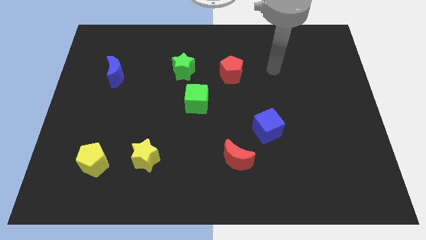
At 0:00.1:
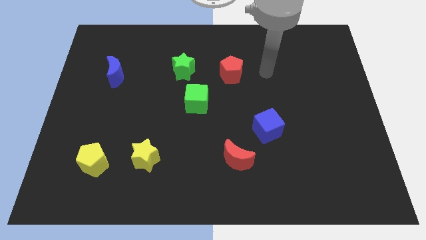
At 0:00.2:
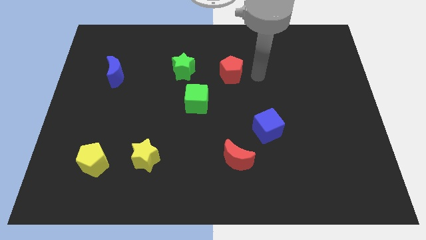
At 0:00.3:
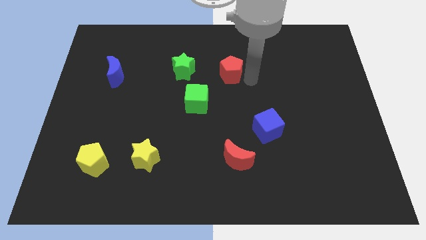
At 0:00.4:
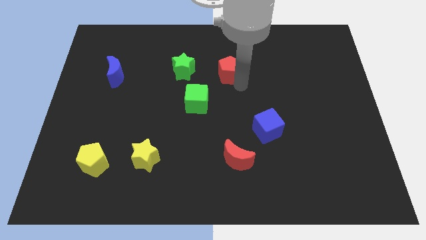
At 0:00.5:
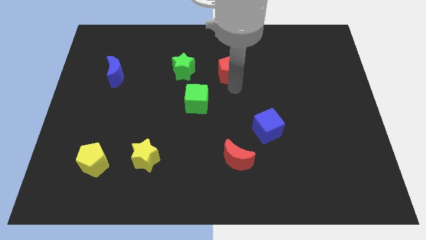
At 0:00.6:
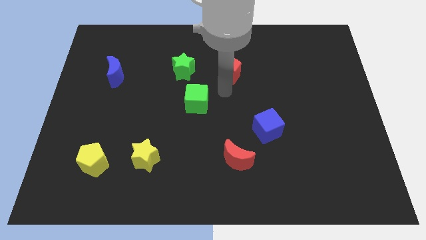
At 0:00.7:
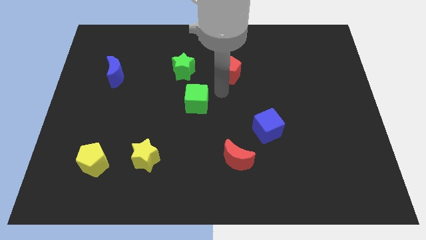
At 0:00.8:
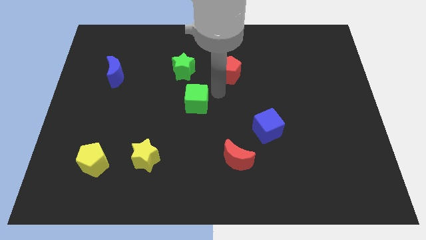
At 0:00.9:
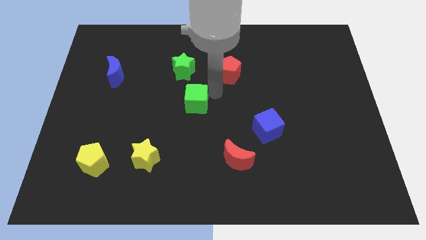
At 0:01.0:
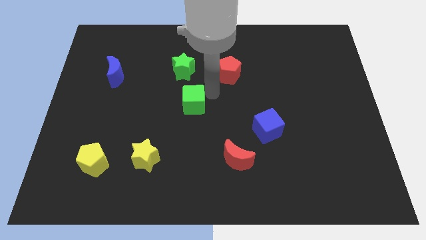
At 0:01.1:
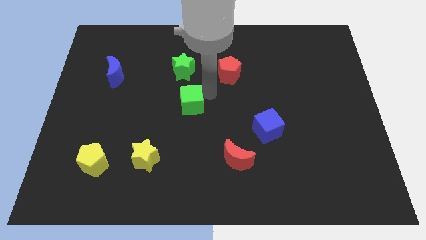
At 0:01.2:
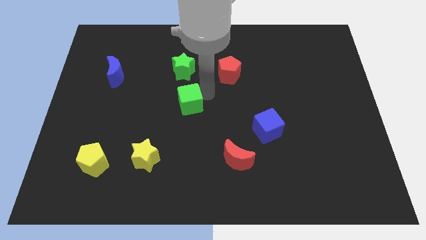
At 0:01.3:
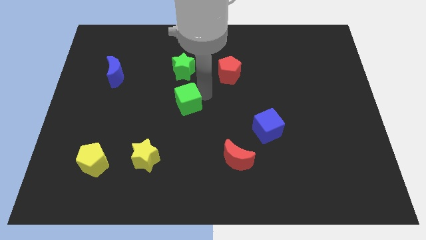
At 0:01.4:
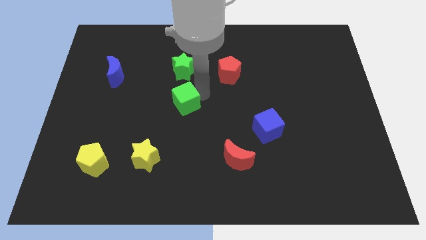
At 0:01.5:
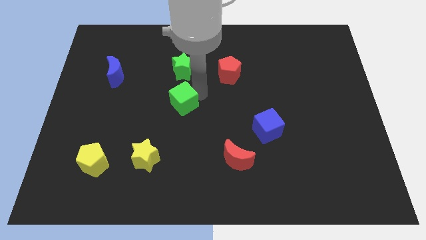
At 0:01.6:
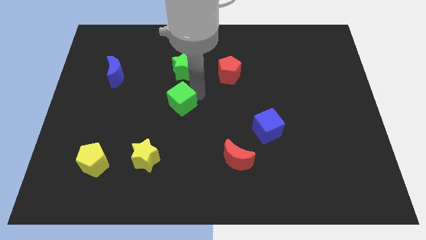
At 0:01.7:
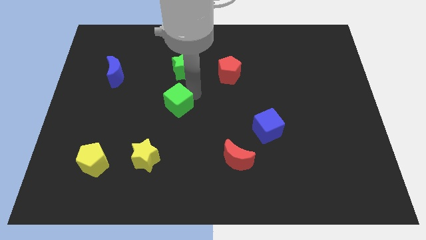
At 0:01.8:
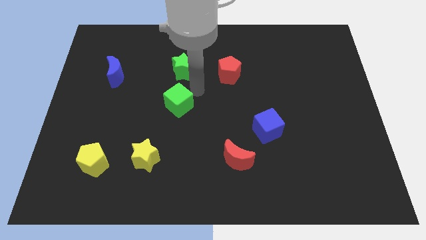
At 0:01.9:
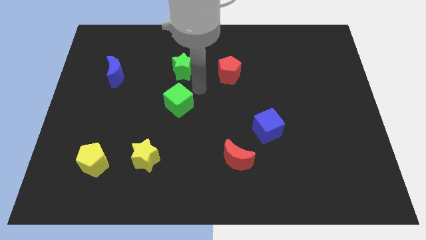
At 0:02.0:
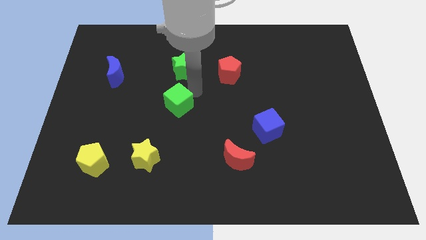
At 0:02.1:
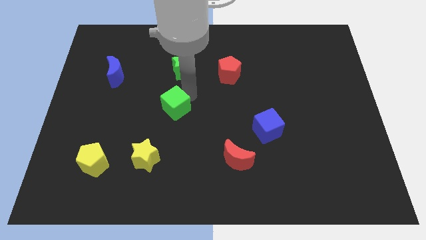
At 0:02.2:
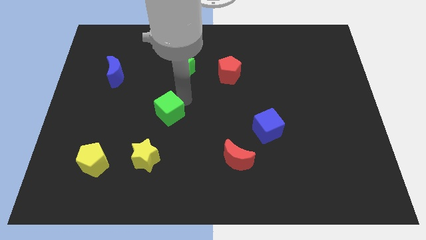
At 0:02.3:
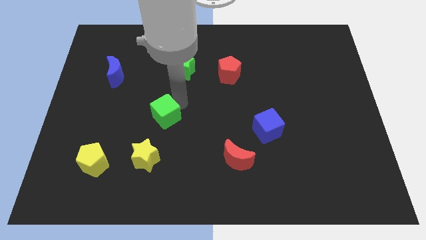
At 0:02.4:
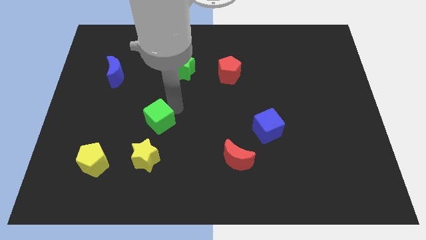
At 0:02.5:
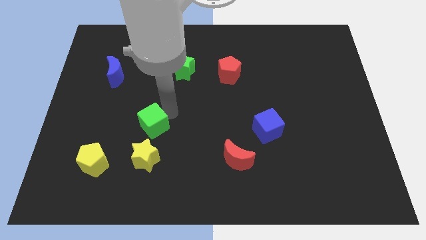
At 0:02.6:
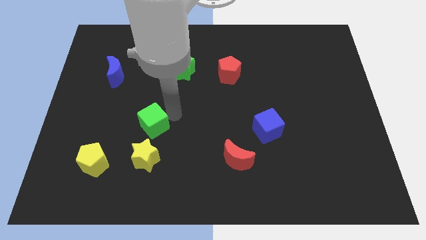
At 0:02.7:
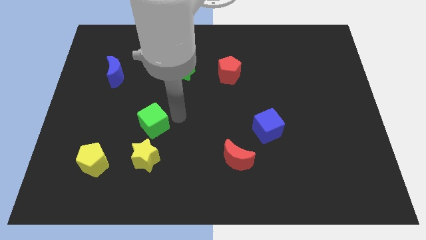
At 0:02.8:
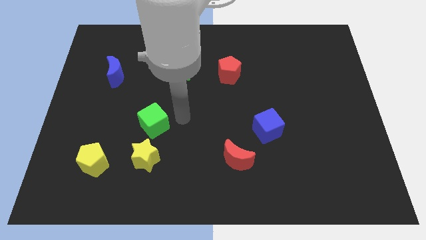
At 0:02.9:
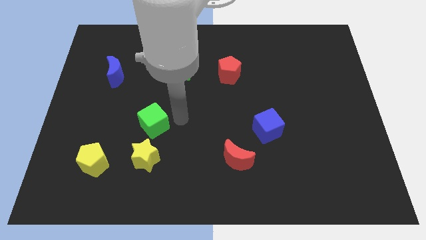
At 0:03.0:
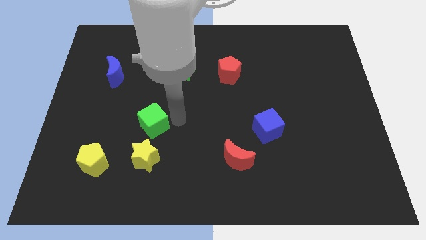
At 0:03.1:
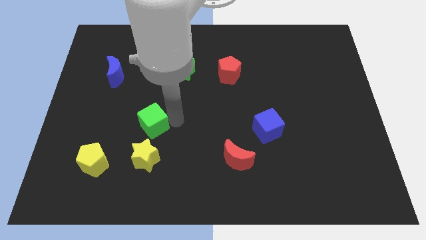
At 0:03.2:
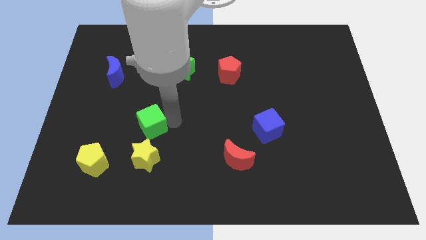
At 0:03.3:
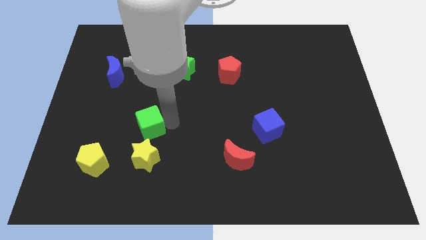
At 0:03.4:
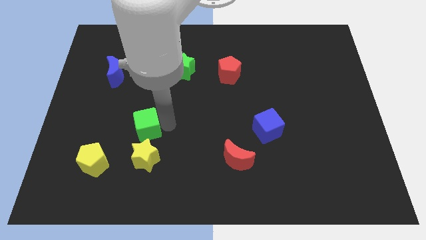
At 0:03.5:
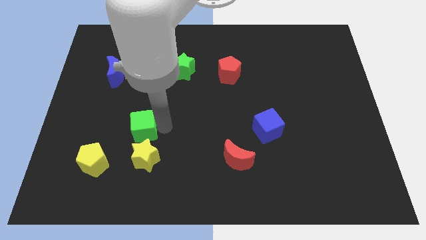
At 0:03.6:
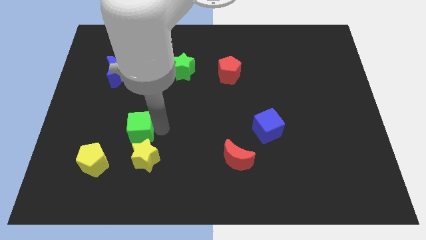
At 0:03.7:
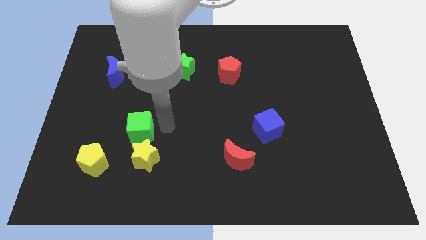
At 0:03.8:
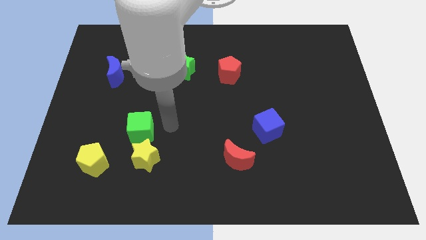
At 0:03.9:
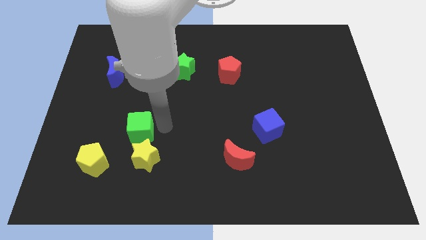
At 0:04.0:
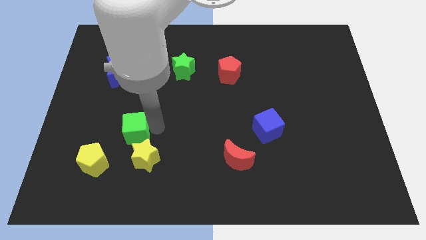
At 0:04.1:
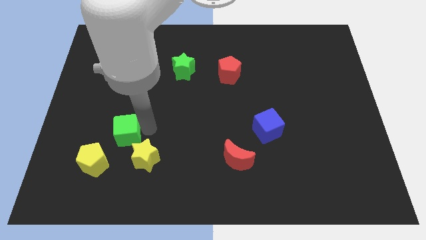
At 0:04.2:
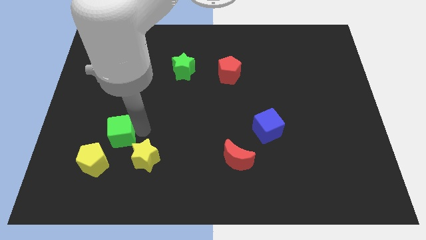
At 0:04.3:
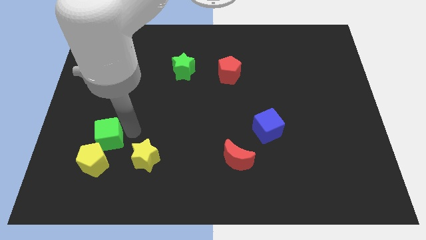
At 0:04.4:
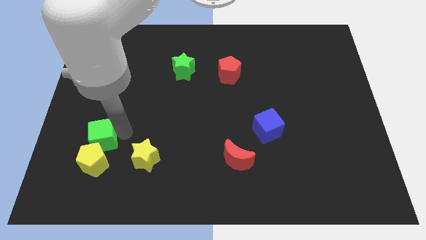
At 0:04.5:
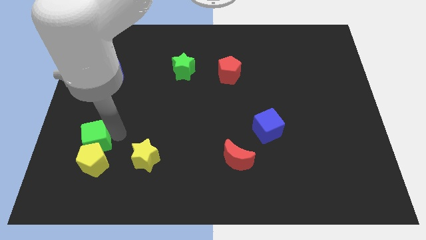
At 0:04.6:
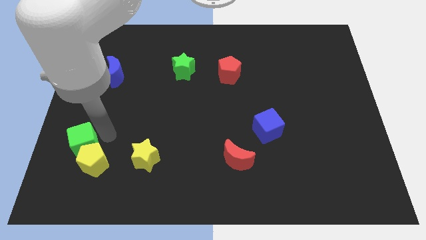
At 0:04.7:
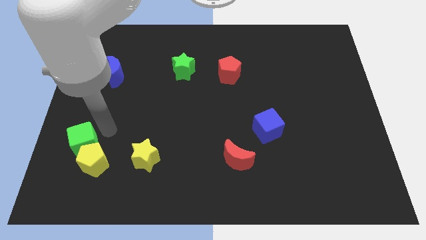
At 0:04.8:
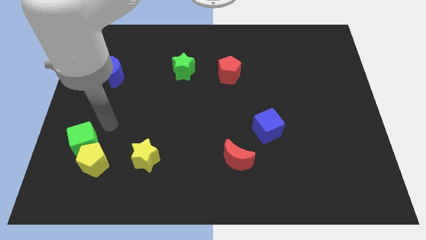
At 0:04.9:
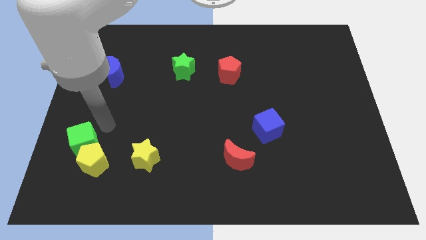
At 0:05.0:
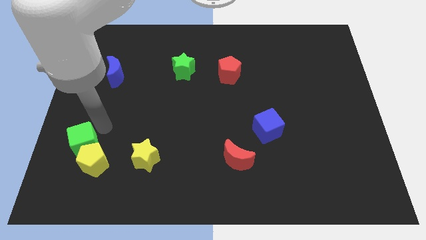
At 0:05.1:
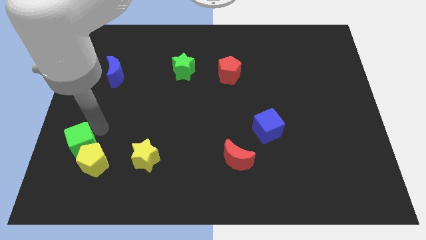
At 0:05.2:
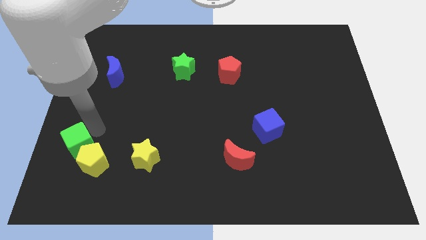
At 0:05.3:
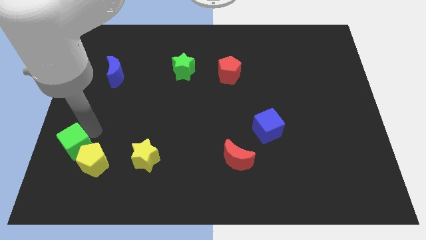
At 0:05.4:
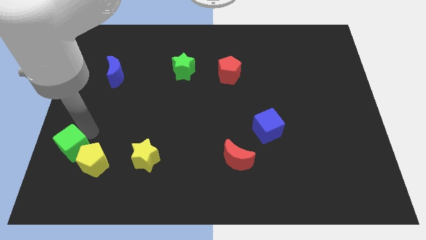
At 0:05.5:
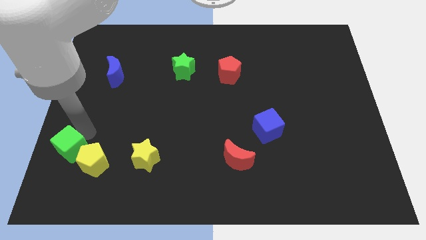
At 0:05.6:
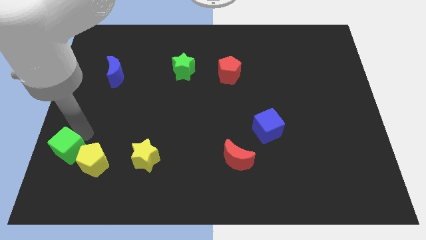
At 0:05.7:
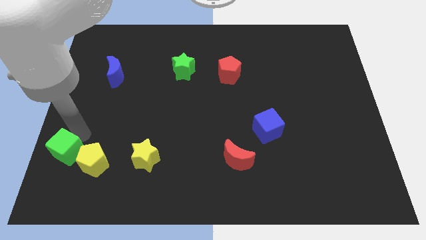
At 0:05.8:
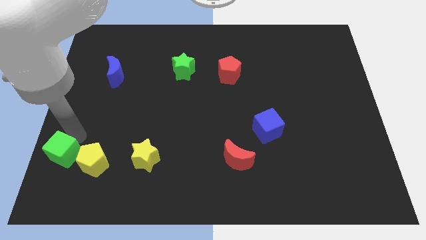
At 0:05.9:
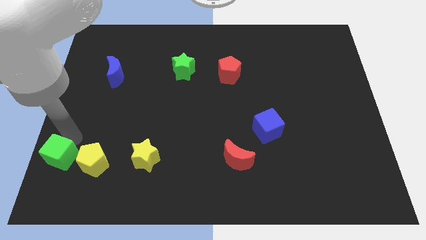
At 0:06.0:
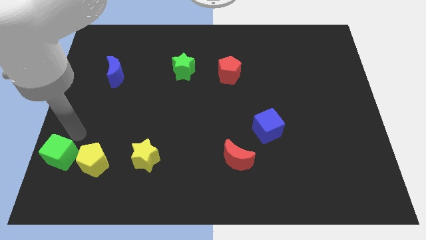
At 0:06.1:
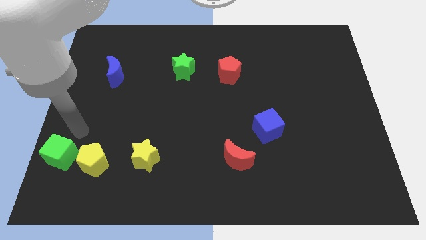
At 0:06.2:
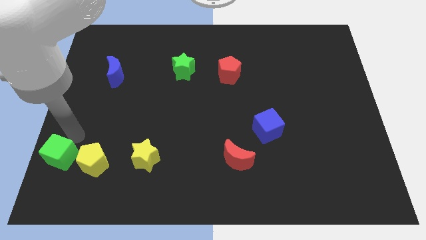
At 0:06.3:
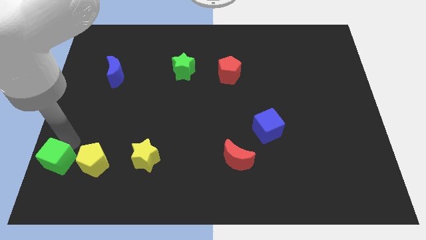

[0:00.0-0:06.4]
push the green cube to the bottom left corner
